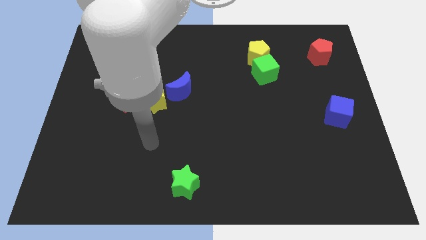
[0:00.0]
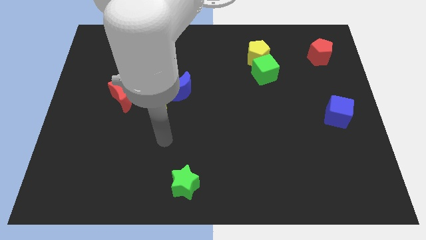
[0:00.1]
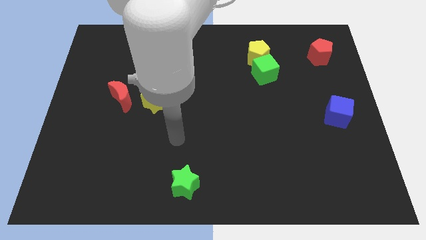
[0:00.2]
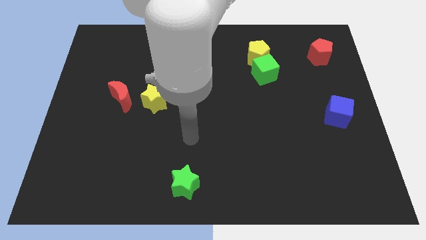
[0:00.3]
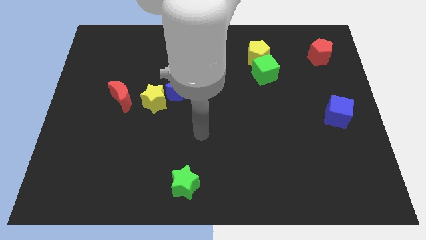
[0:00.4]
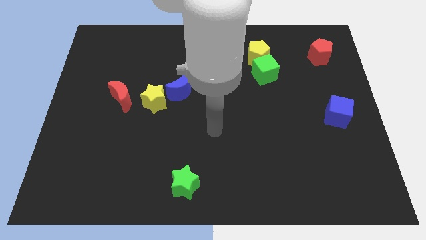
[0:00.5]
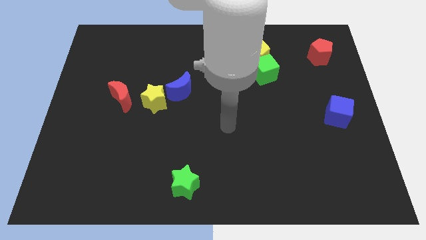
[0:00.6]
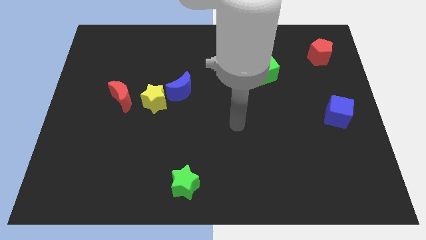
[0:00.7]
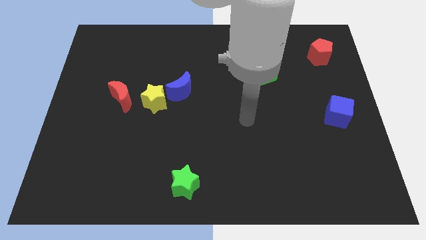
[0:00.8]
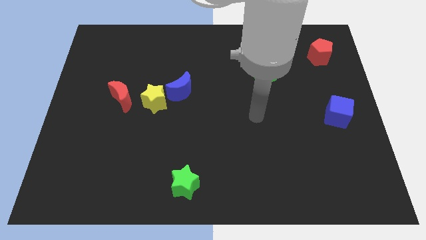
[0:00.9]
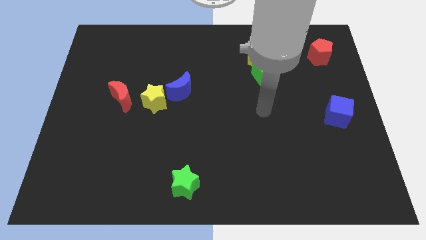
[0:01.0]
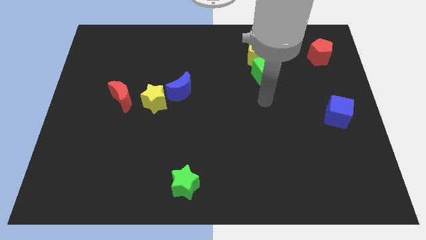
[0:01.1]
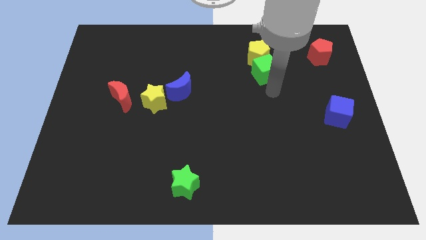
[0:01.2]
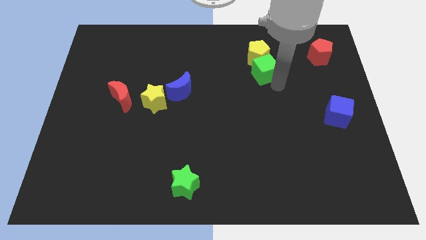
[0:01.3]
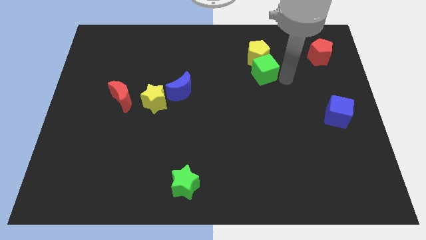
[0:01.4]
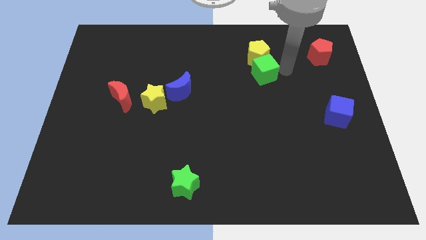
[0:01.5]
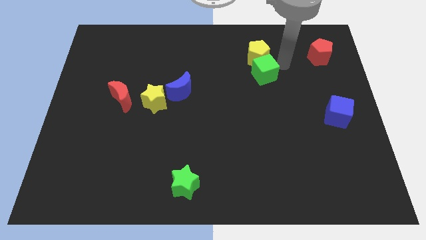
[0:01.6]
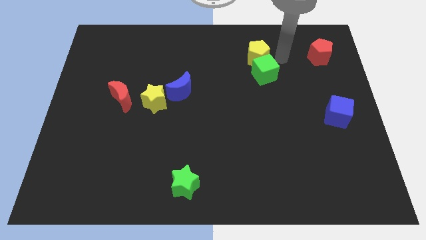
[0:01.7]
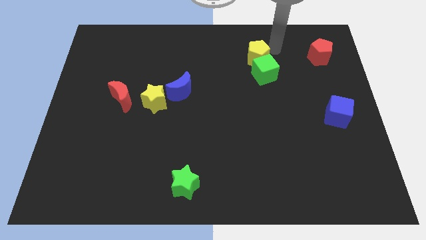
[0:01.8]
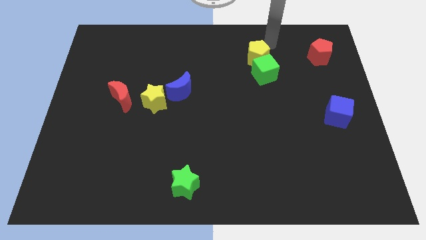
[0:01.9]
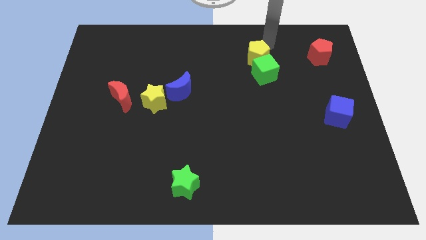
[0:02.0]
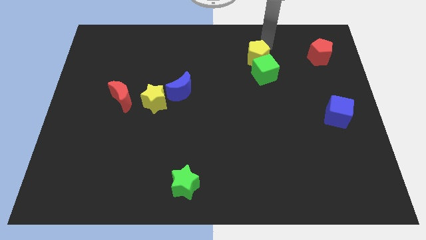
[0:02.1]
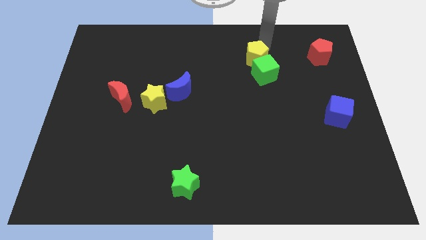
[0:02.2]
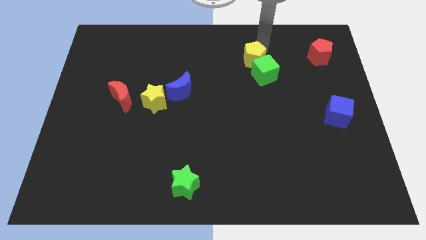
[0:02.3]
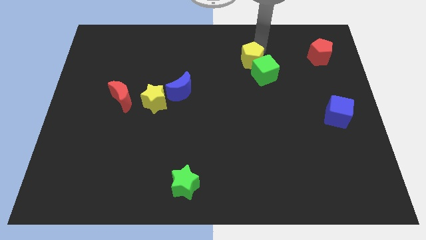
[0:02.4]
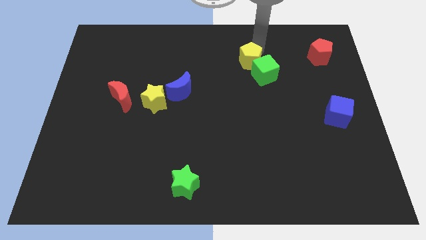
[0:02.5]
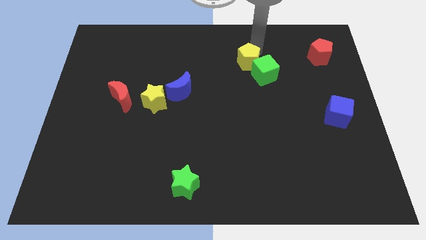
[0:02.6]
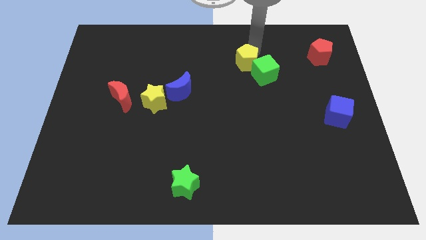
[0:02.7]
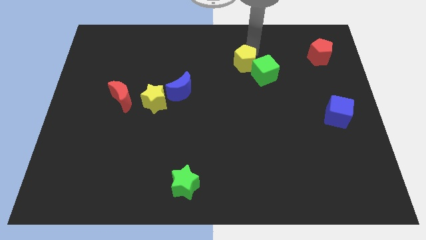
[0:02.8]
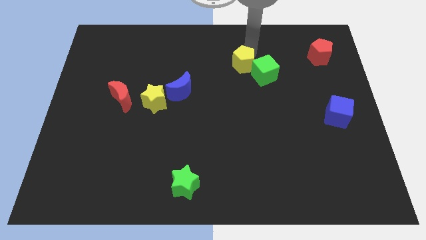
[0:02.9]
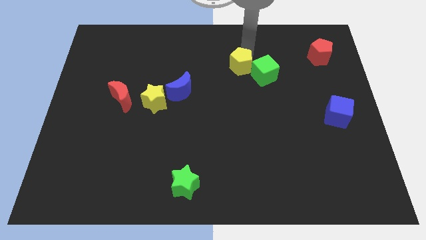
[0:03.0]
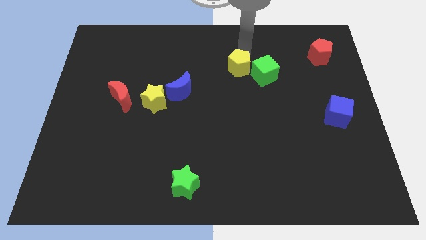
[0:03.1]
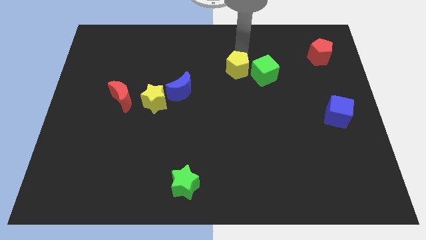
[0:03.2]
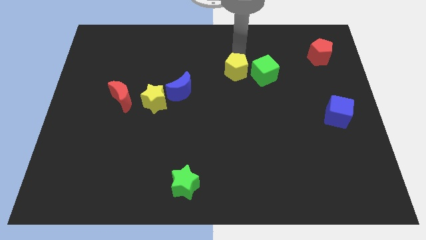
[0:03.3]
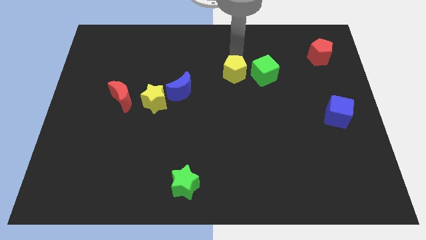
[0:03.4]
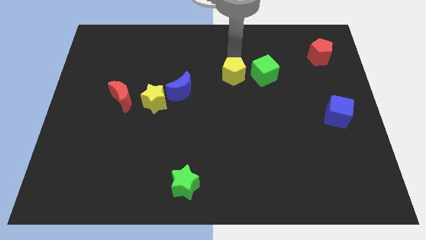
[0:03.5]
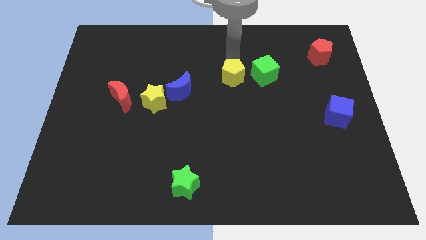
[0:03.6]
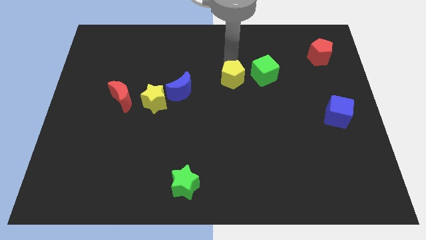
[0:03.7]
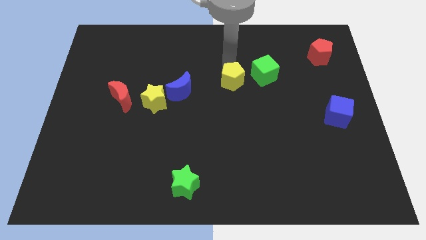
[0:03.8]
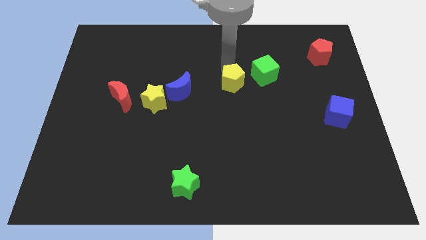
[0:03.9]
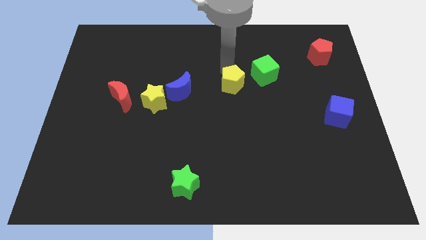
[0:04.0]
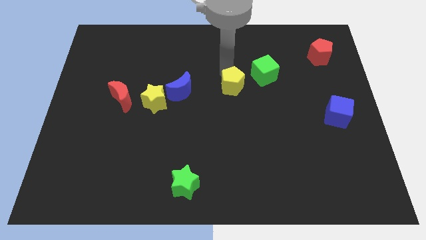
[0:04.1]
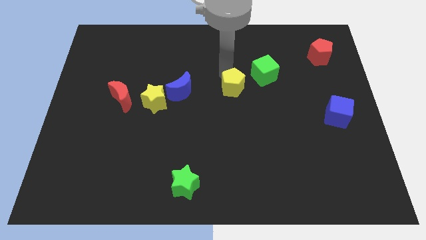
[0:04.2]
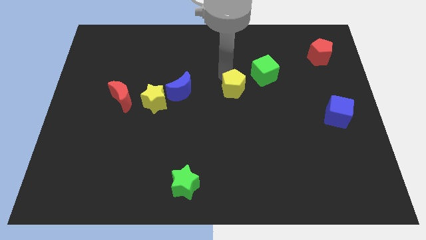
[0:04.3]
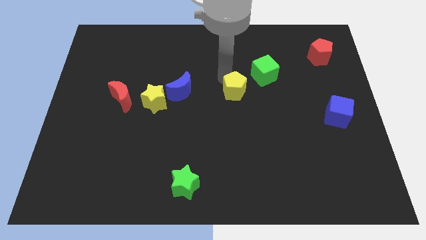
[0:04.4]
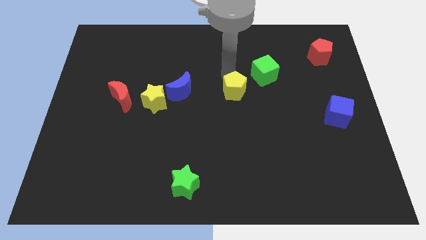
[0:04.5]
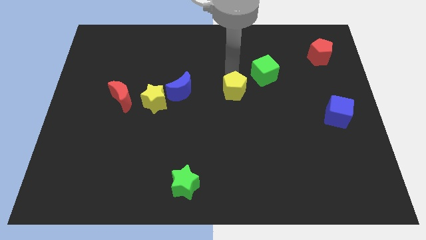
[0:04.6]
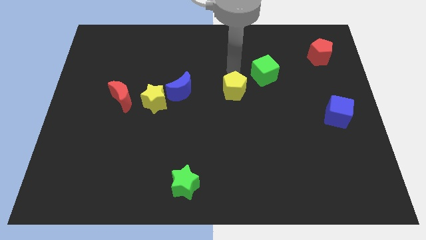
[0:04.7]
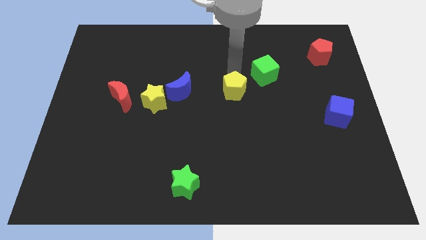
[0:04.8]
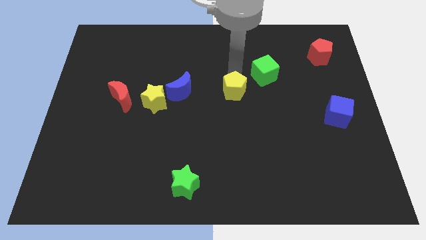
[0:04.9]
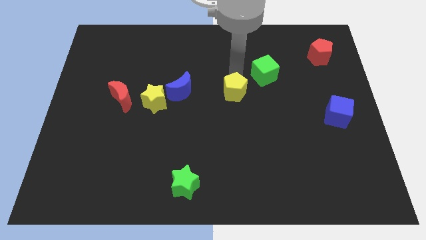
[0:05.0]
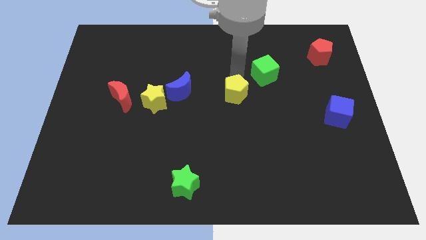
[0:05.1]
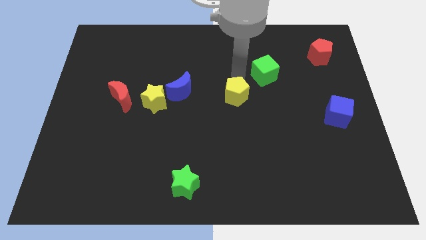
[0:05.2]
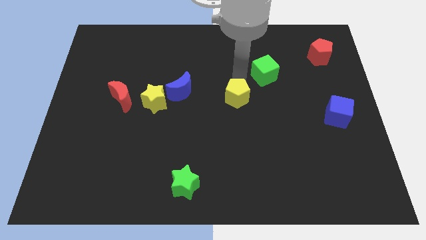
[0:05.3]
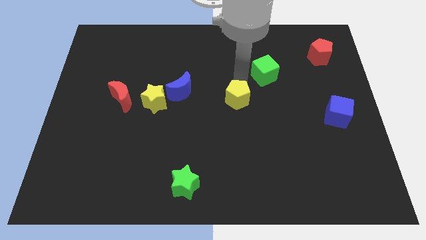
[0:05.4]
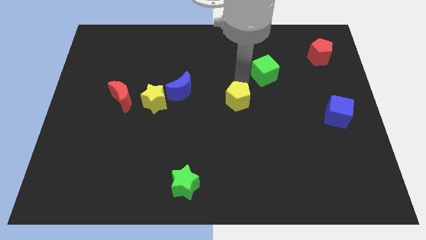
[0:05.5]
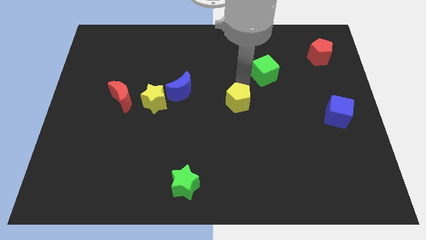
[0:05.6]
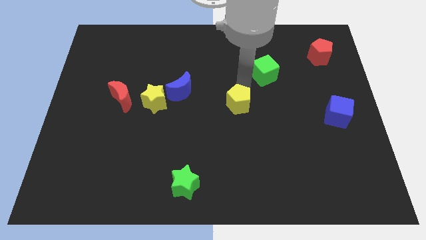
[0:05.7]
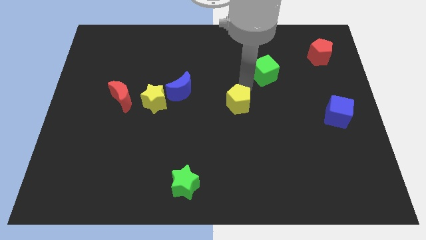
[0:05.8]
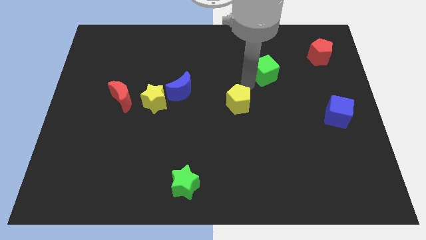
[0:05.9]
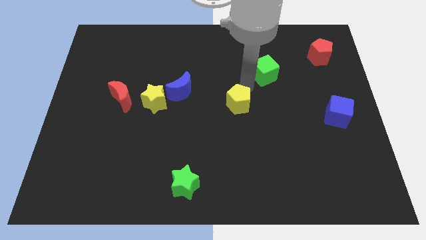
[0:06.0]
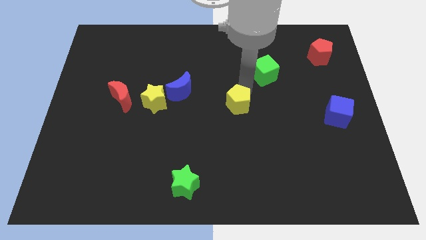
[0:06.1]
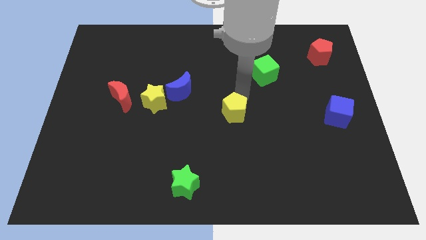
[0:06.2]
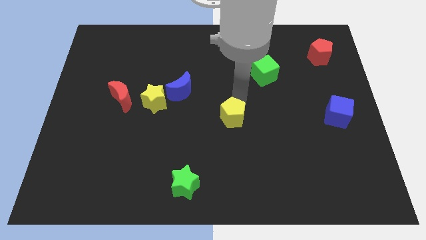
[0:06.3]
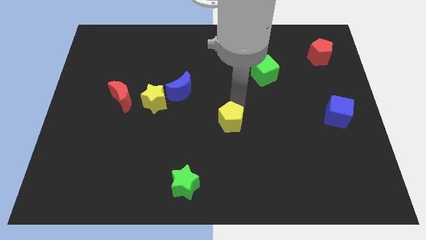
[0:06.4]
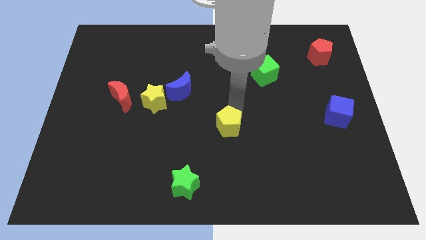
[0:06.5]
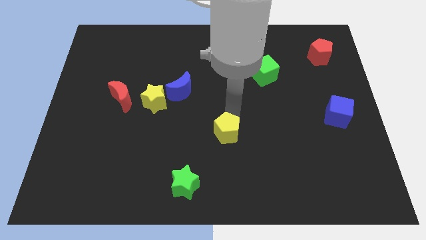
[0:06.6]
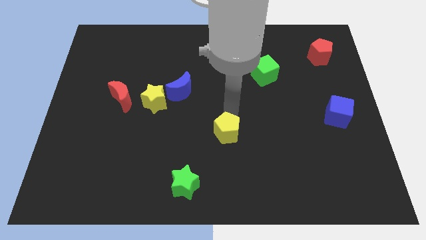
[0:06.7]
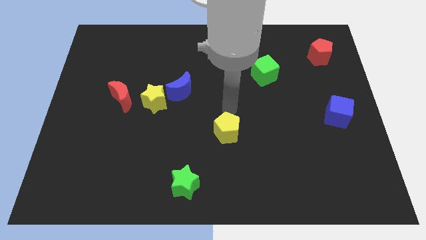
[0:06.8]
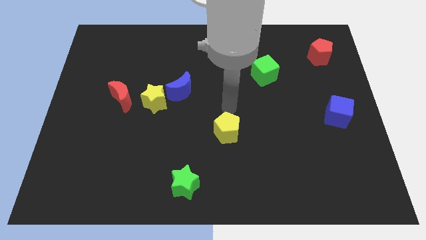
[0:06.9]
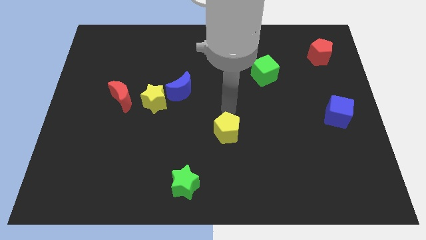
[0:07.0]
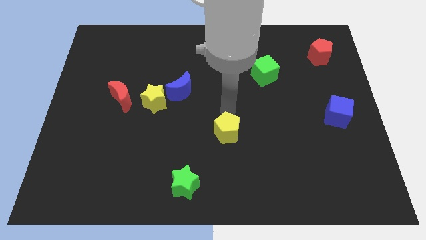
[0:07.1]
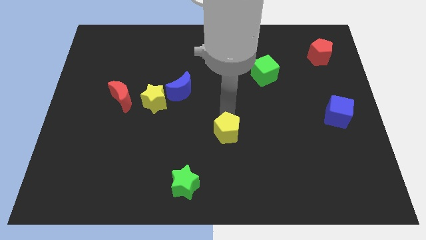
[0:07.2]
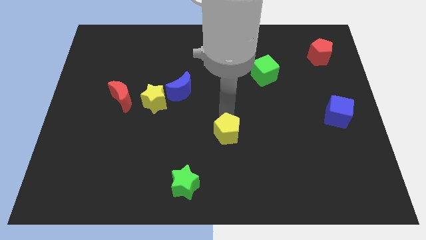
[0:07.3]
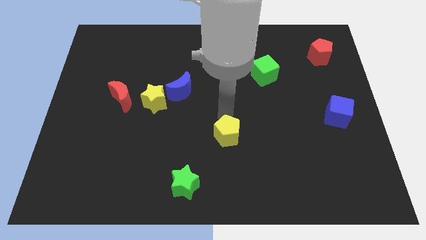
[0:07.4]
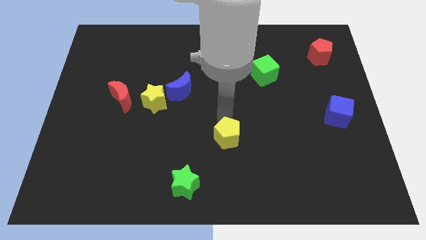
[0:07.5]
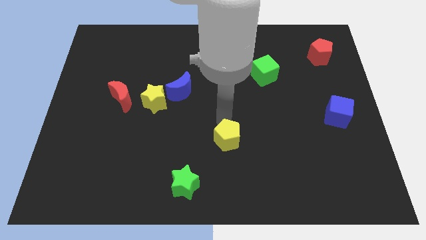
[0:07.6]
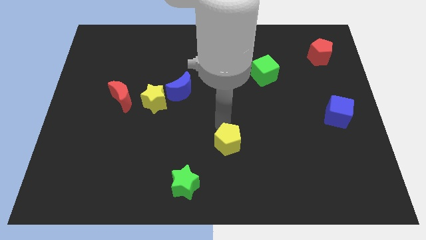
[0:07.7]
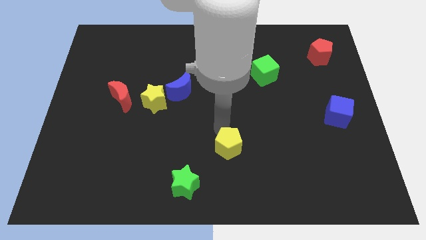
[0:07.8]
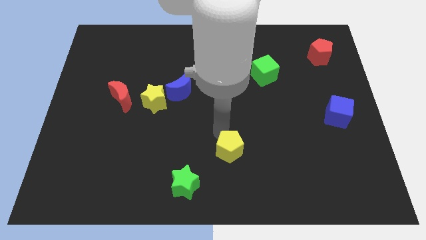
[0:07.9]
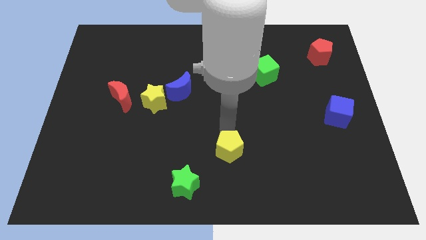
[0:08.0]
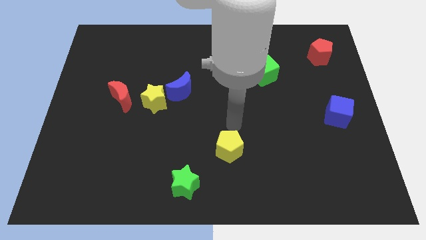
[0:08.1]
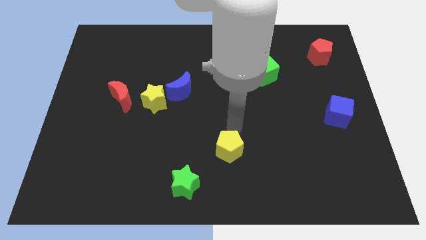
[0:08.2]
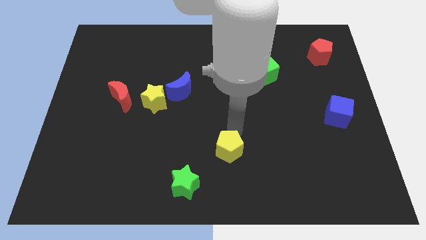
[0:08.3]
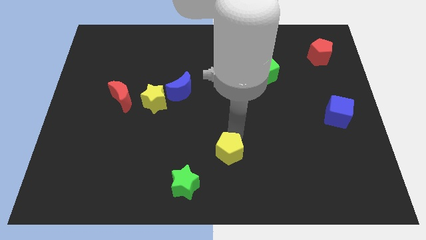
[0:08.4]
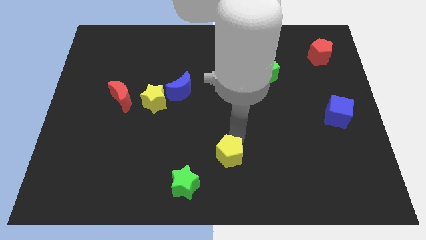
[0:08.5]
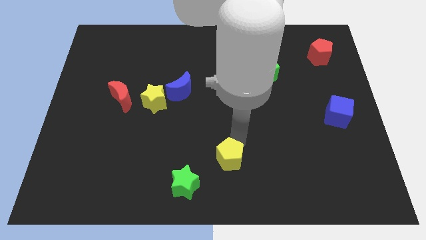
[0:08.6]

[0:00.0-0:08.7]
push the yellow pentagon to the bottom
